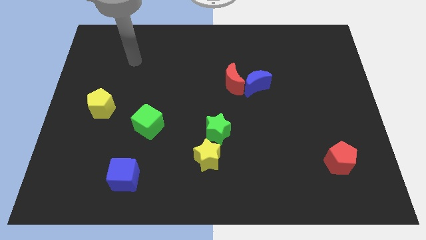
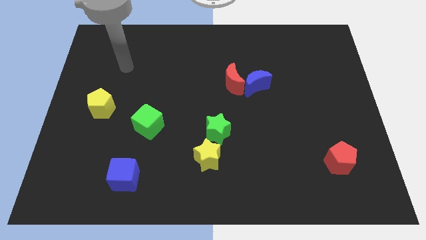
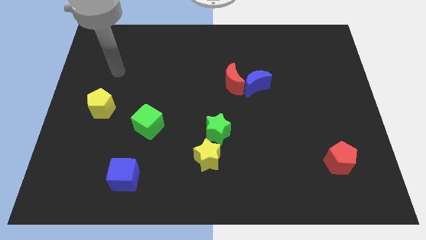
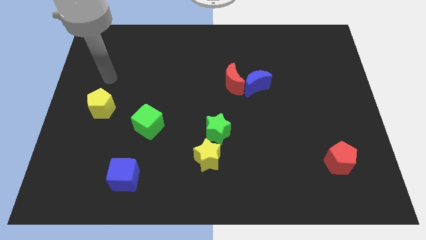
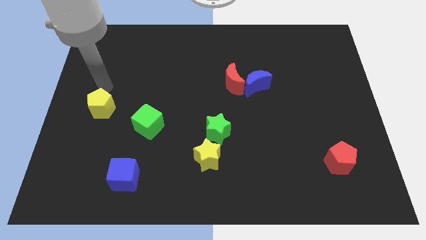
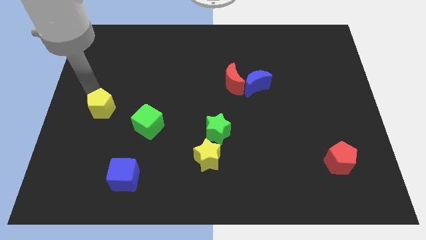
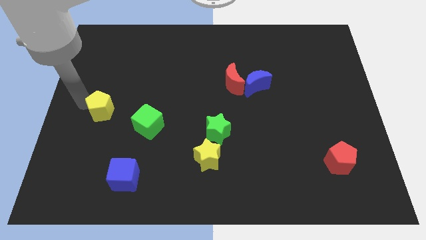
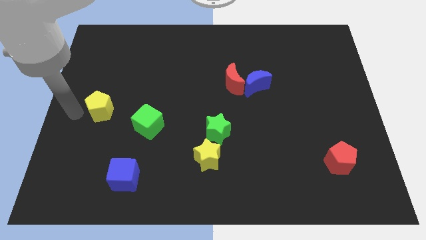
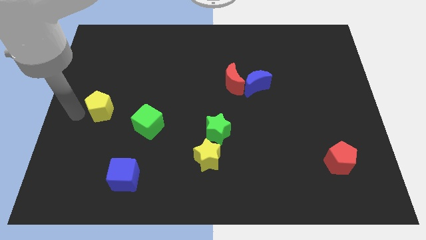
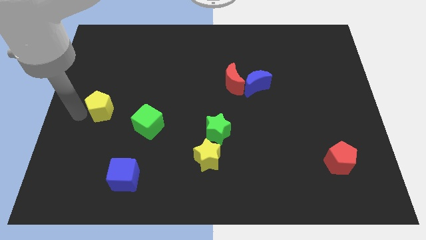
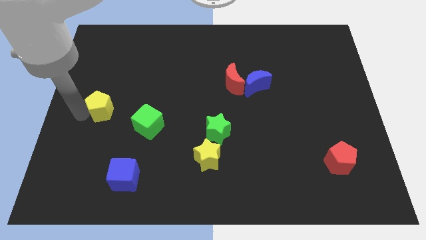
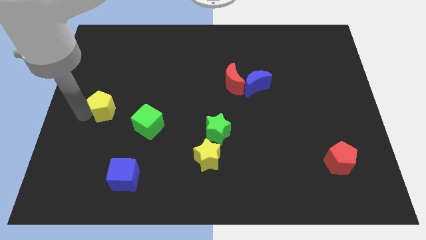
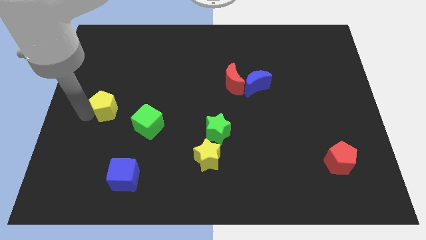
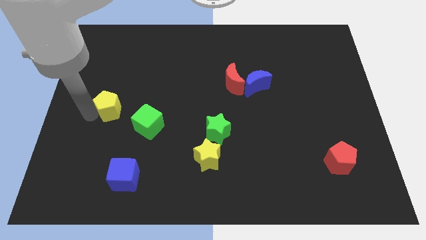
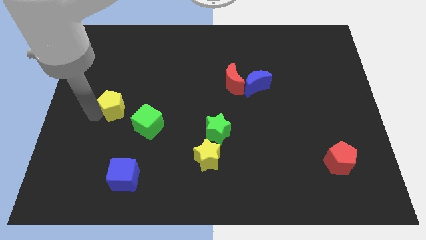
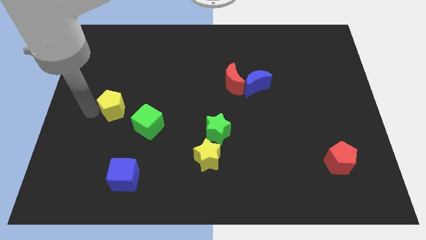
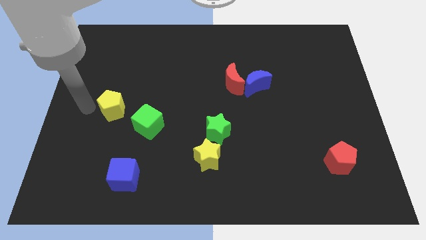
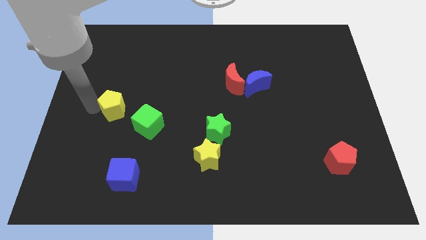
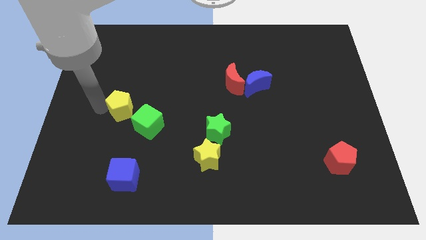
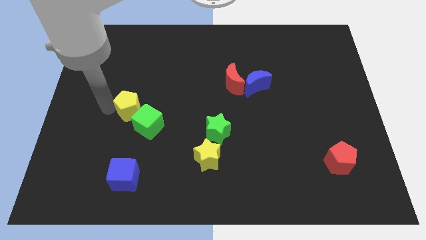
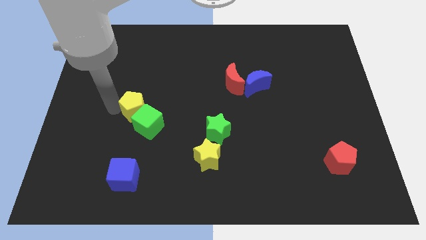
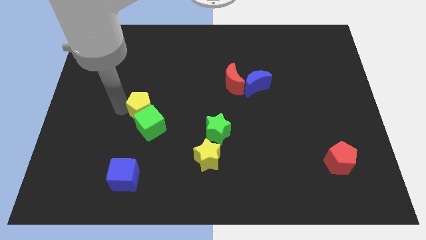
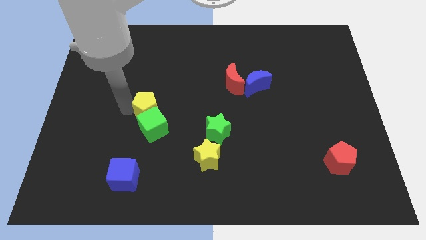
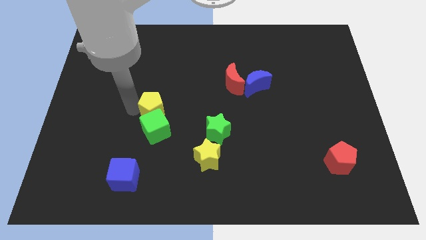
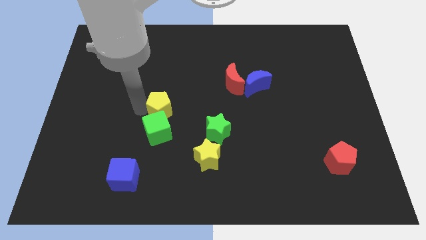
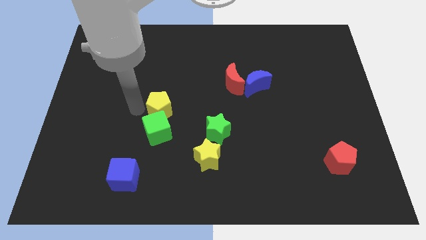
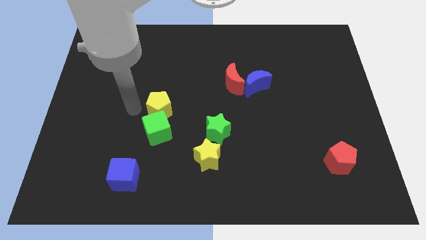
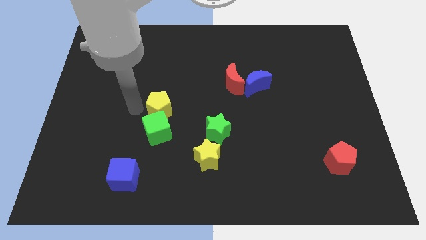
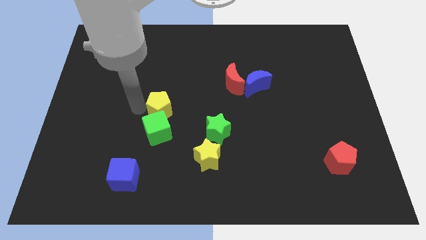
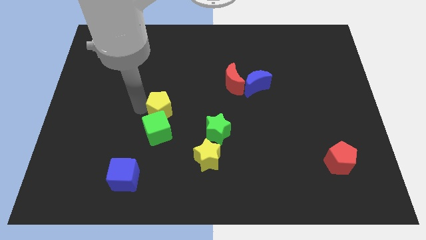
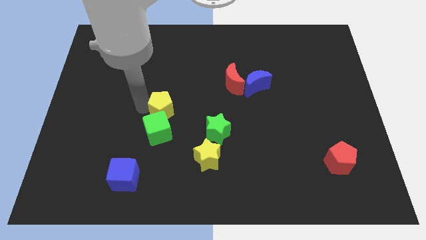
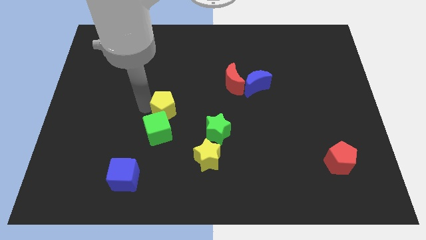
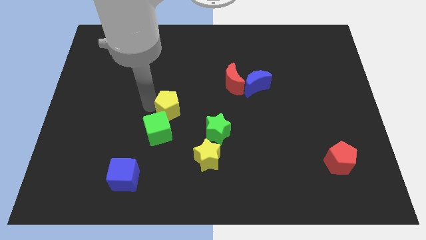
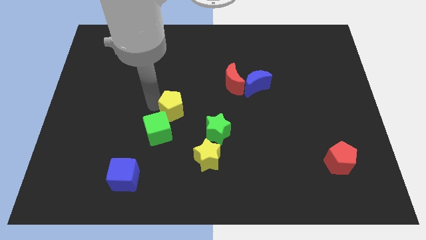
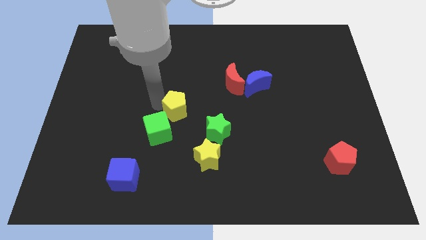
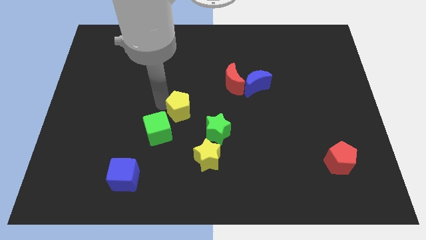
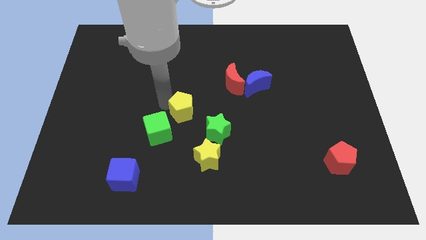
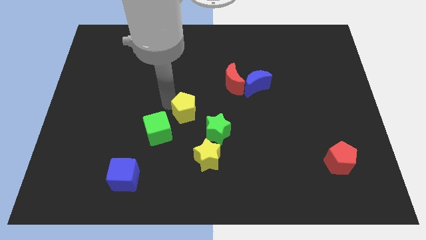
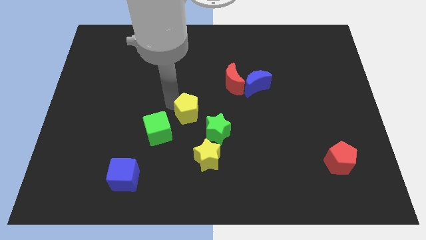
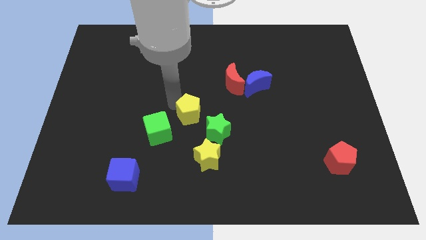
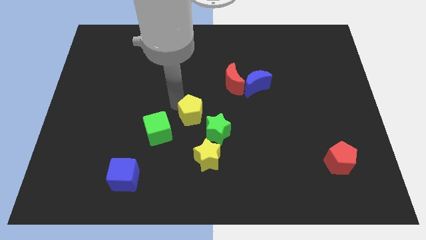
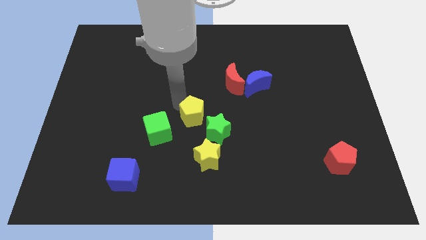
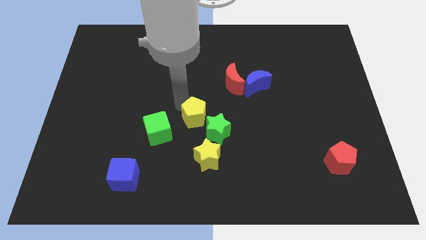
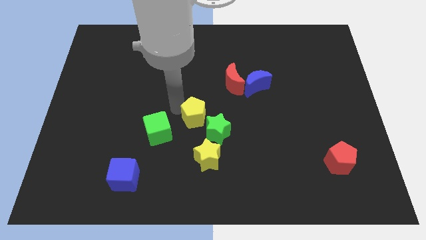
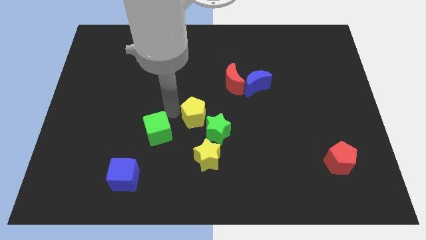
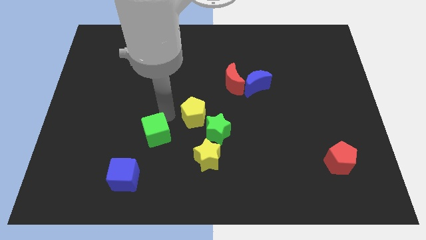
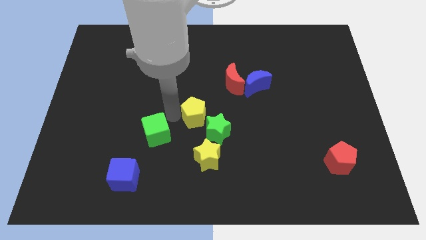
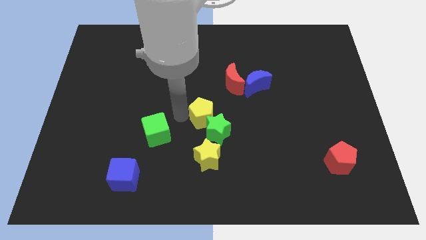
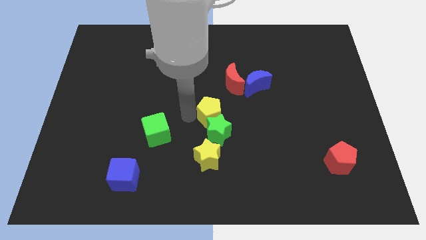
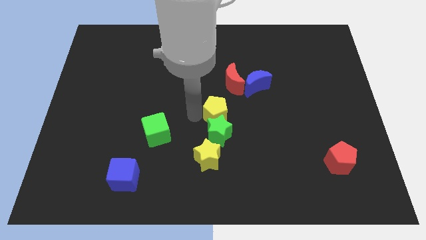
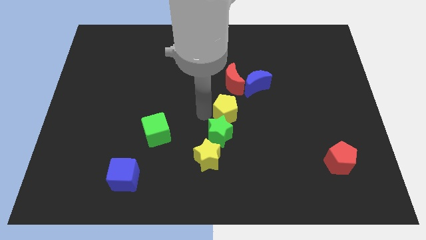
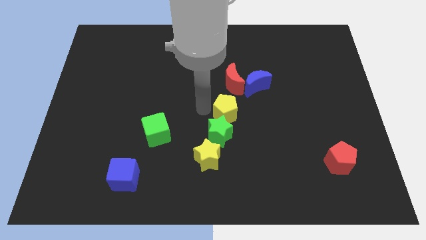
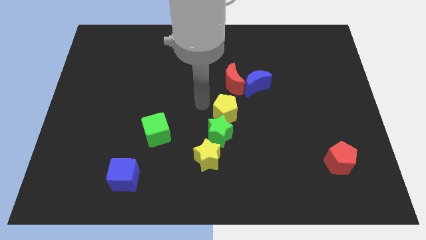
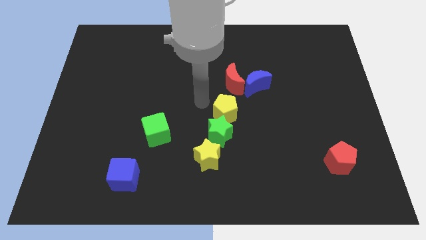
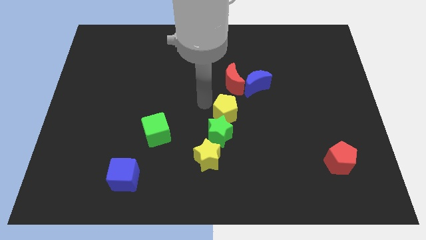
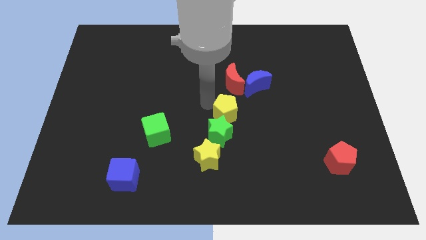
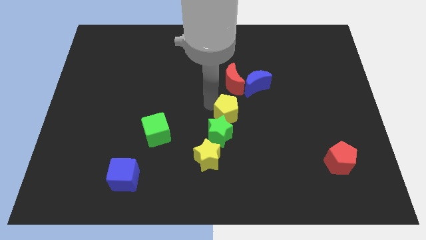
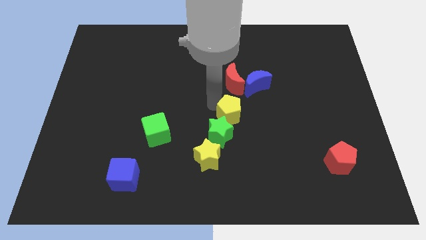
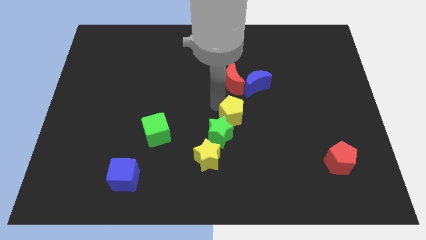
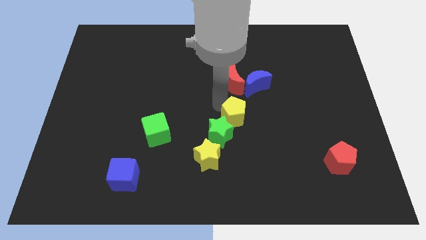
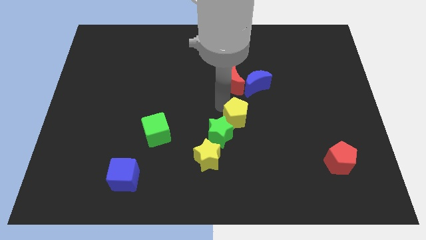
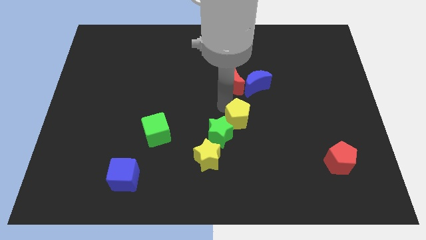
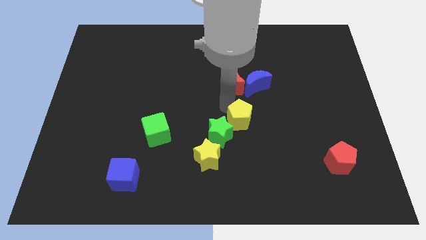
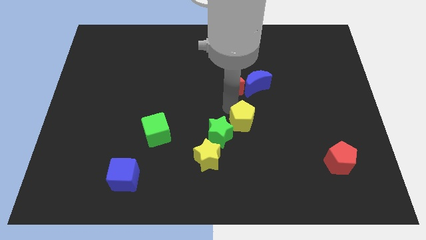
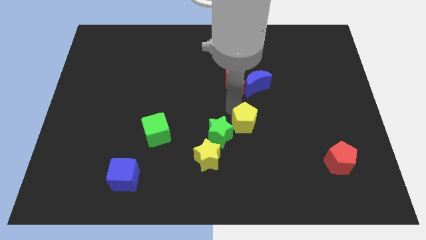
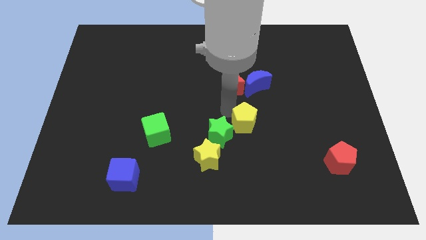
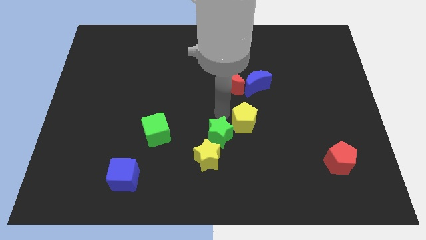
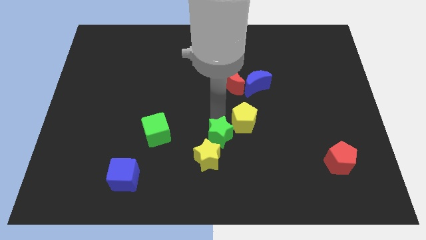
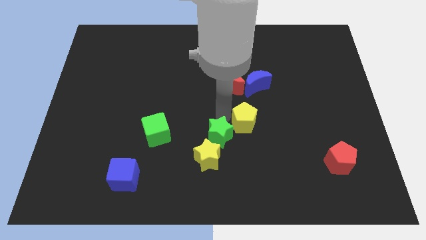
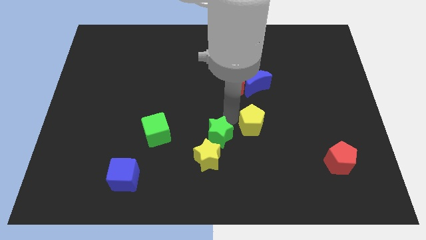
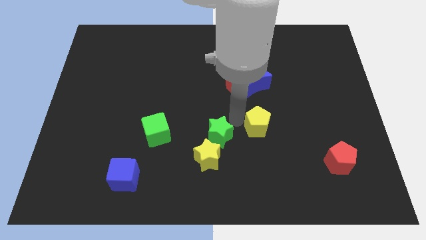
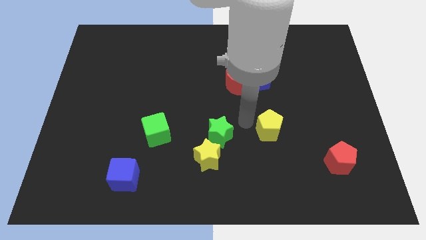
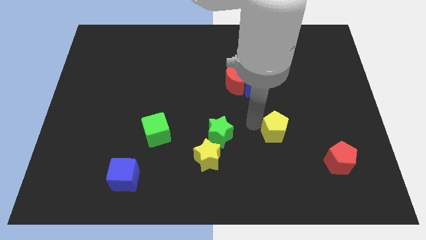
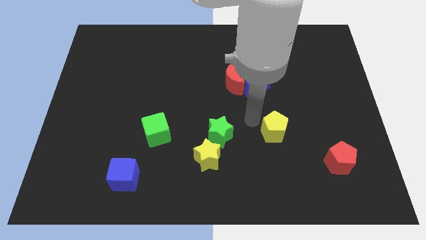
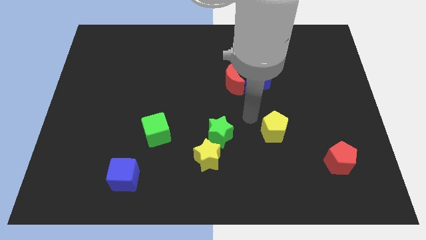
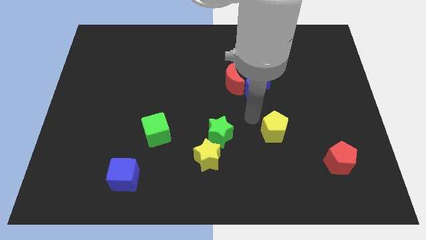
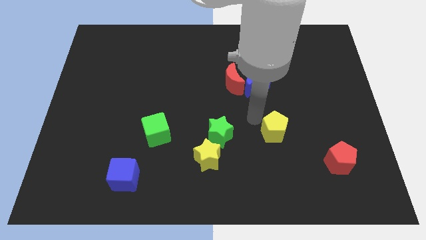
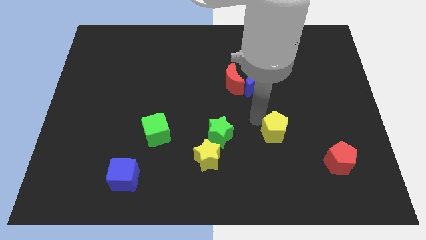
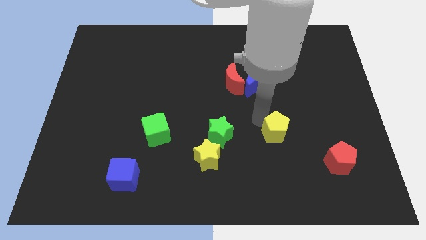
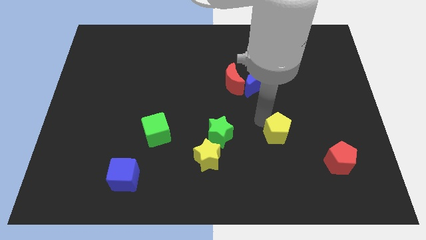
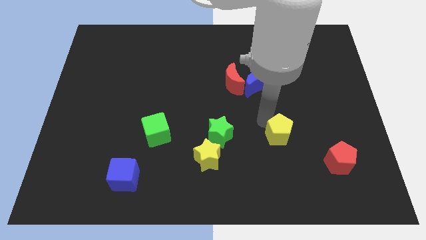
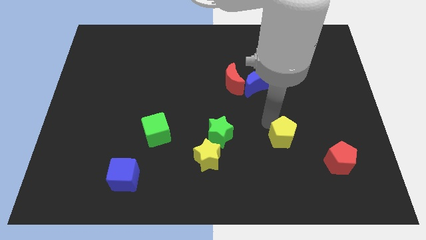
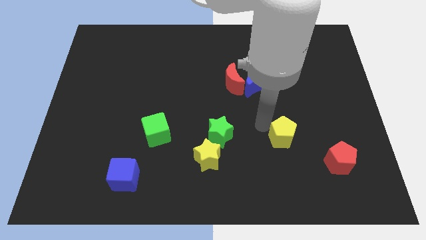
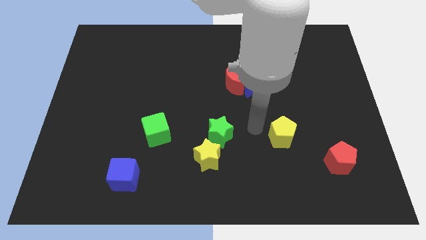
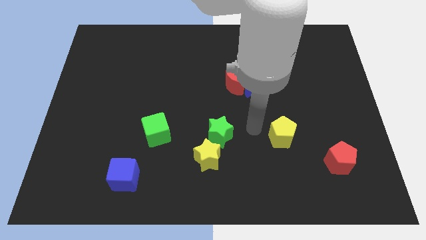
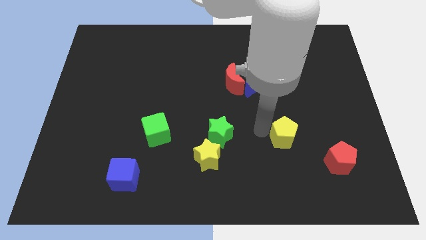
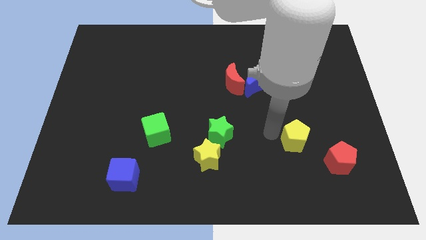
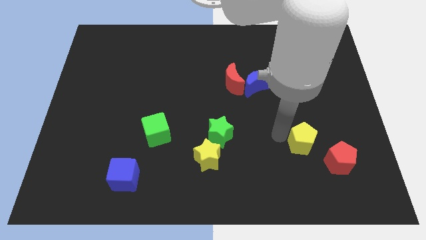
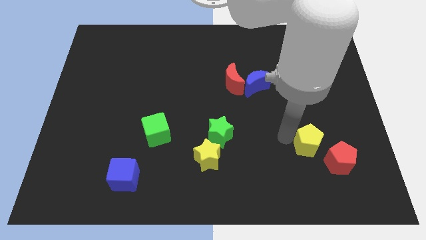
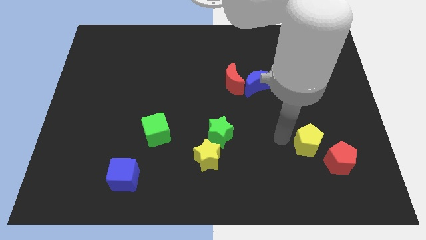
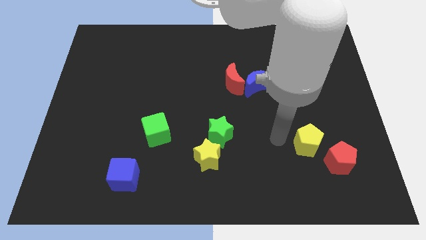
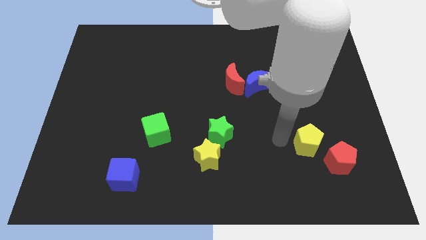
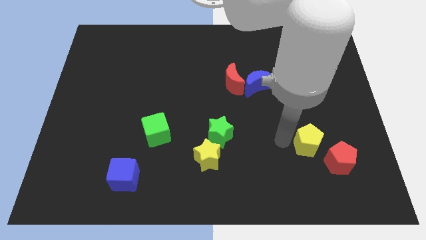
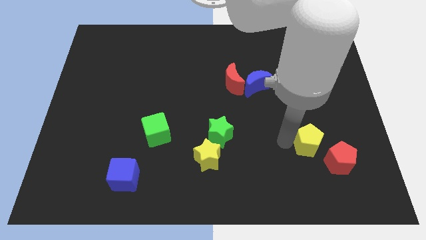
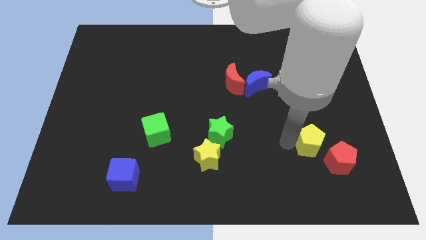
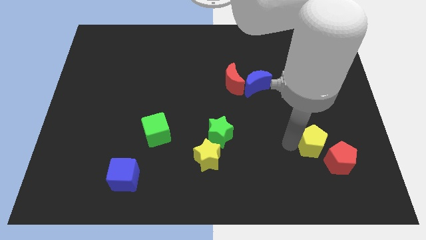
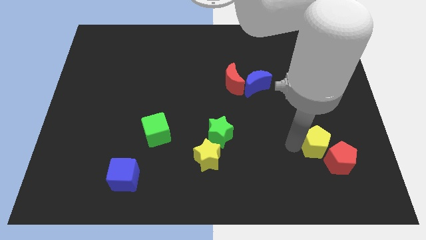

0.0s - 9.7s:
push the yellow pentagon towards the red pentagon
